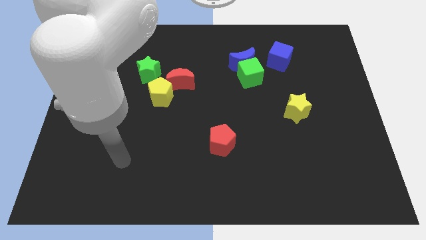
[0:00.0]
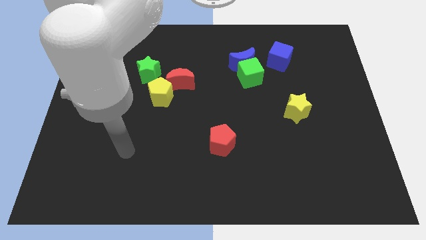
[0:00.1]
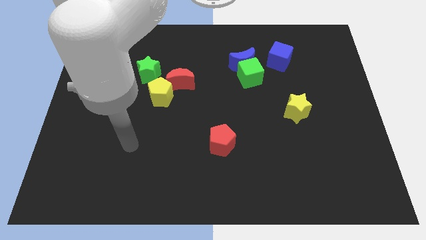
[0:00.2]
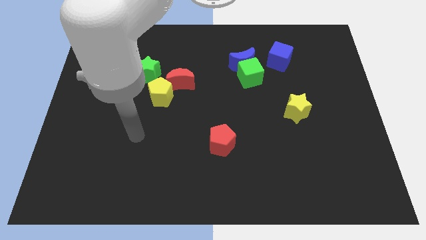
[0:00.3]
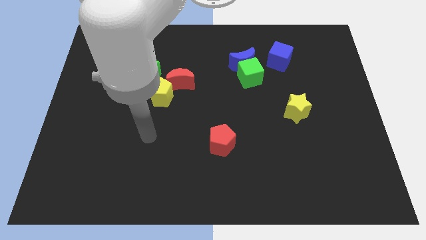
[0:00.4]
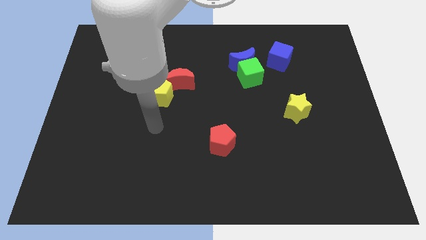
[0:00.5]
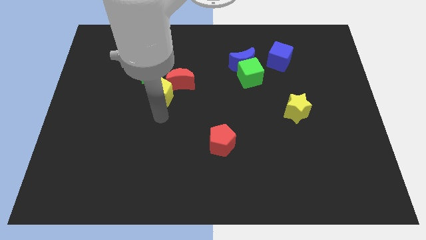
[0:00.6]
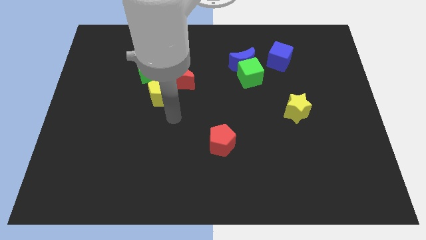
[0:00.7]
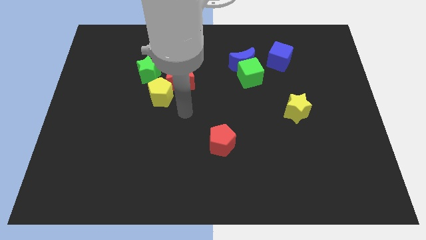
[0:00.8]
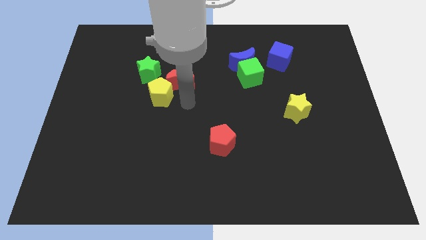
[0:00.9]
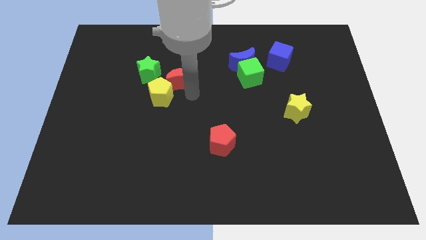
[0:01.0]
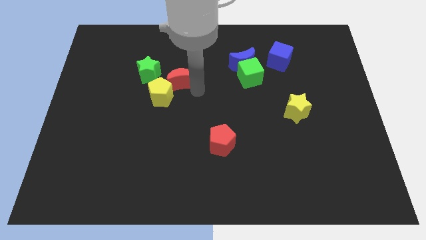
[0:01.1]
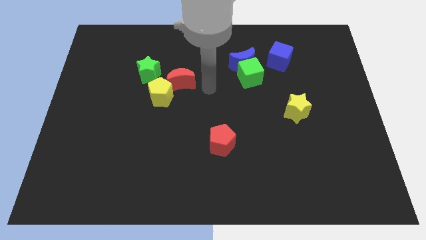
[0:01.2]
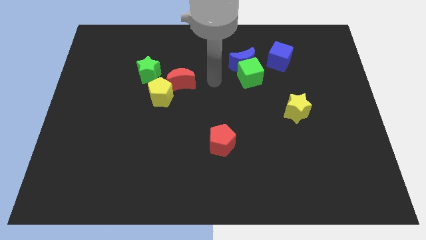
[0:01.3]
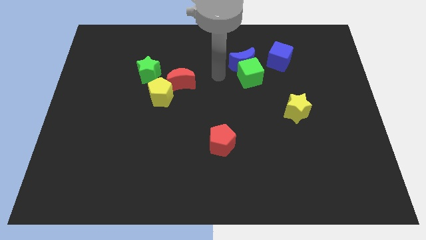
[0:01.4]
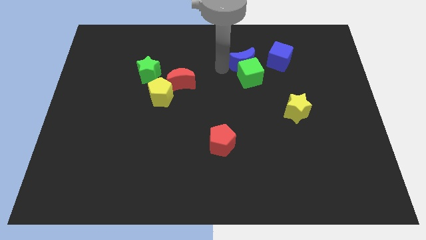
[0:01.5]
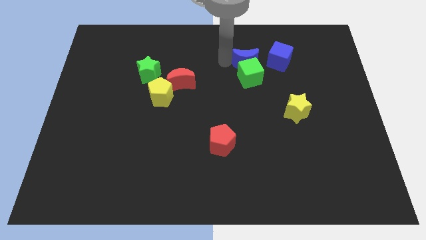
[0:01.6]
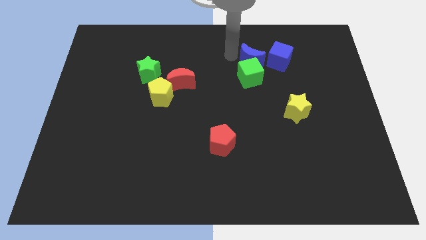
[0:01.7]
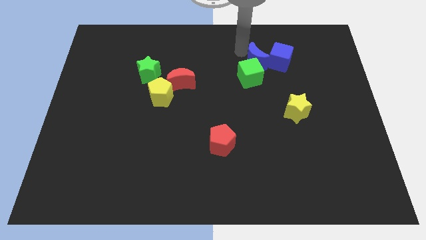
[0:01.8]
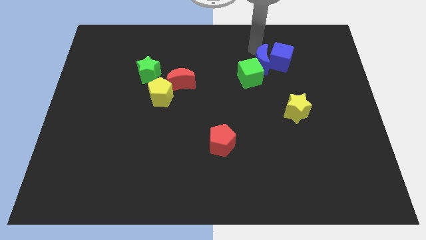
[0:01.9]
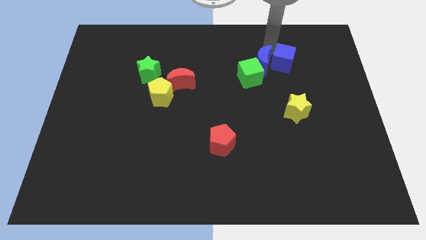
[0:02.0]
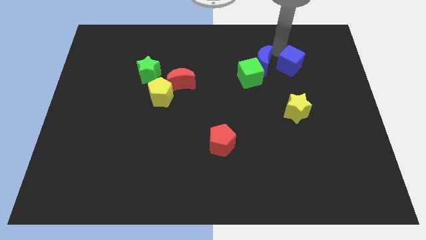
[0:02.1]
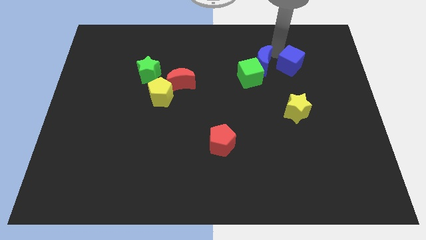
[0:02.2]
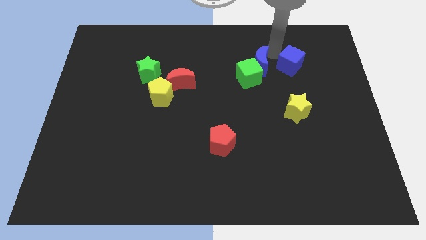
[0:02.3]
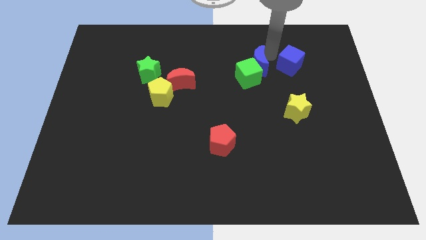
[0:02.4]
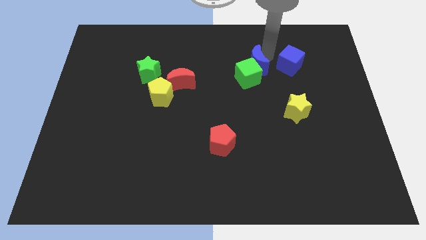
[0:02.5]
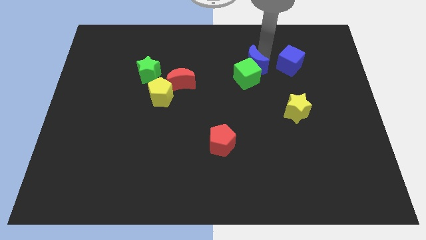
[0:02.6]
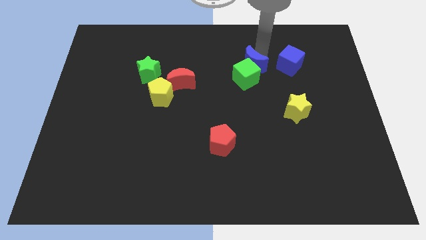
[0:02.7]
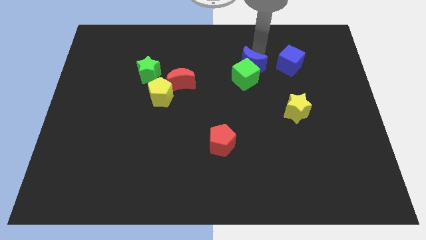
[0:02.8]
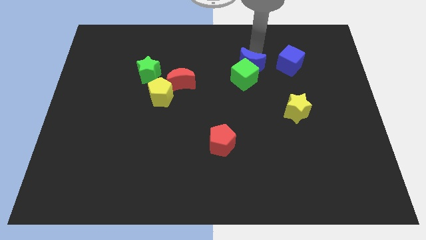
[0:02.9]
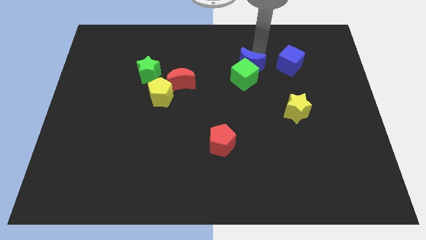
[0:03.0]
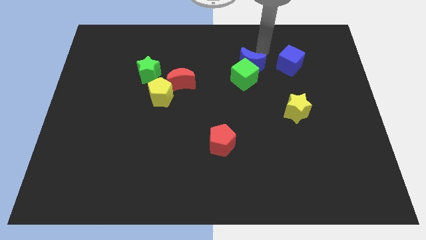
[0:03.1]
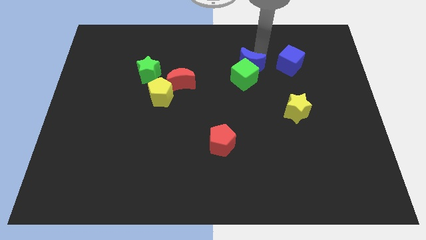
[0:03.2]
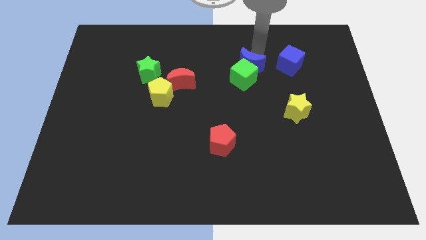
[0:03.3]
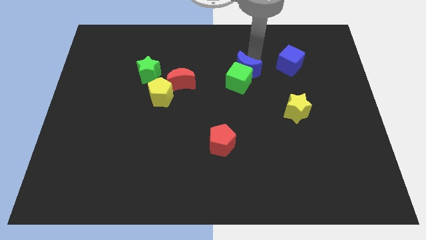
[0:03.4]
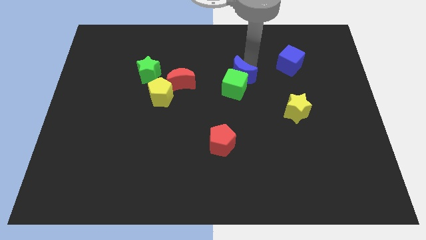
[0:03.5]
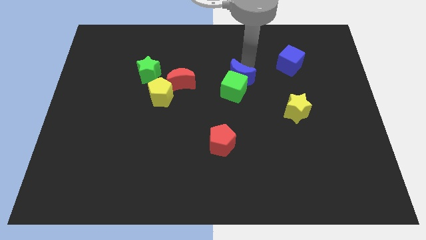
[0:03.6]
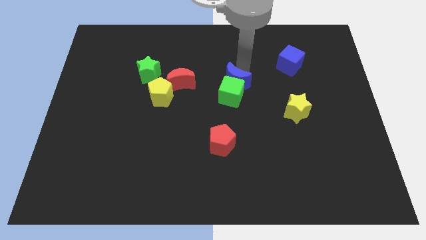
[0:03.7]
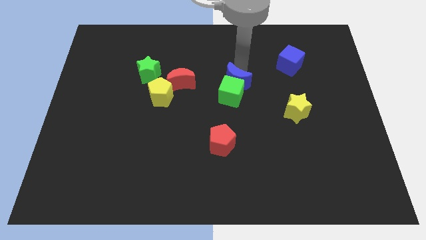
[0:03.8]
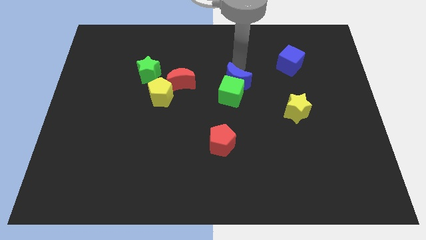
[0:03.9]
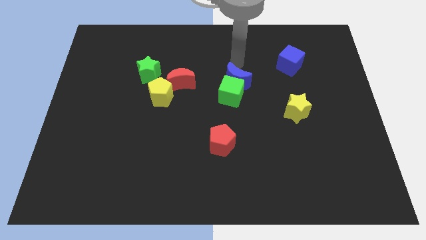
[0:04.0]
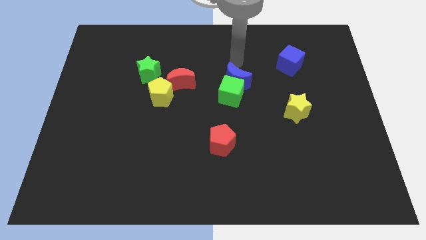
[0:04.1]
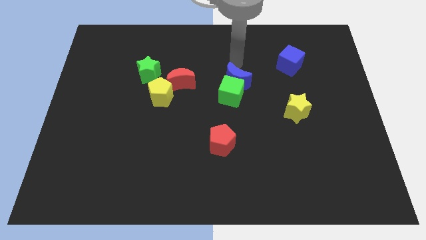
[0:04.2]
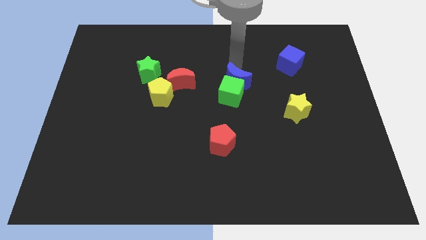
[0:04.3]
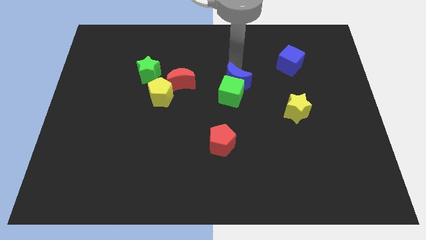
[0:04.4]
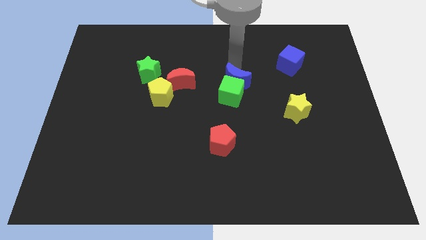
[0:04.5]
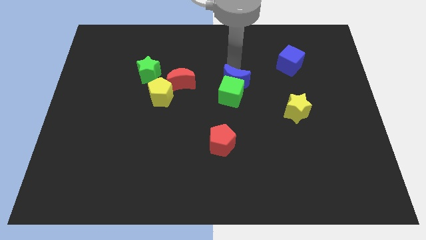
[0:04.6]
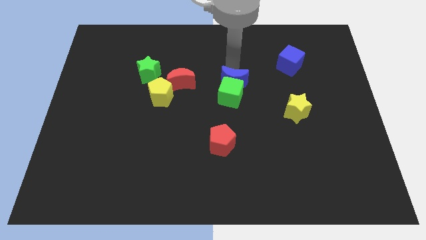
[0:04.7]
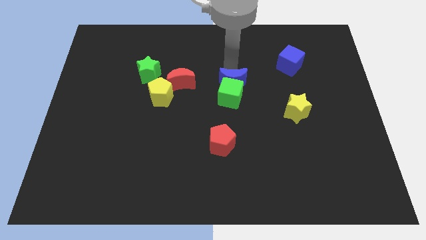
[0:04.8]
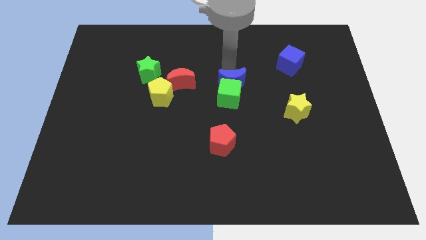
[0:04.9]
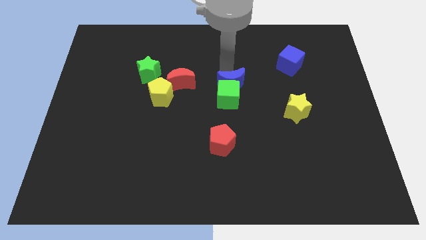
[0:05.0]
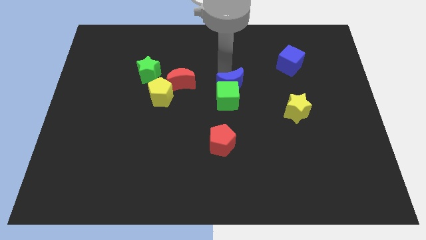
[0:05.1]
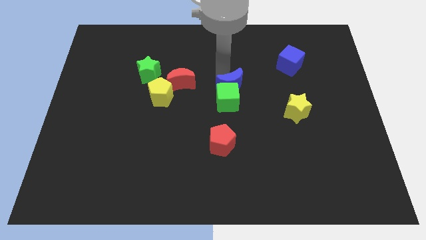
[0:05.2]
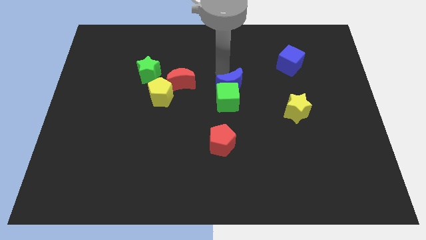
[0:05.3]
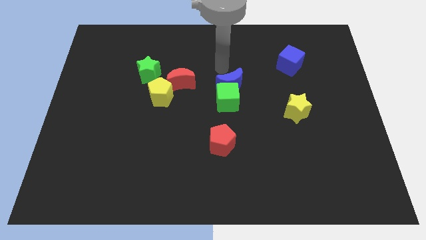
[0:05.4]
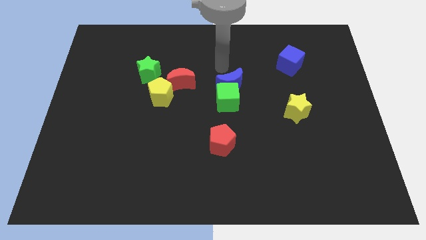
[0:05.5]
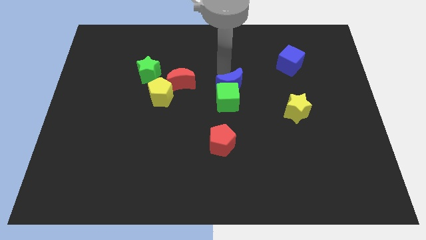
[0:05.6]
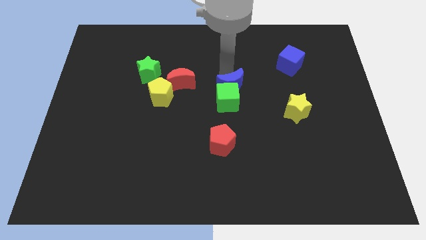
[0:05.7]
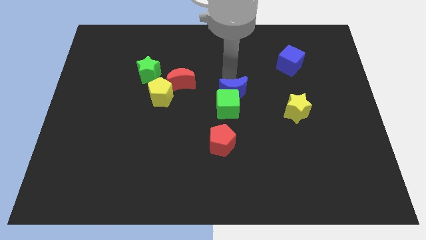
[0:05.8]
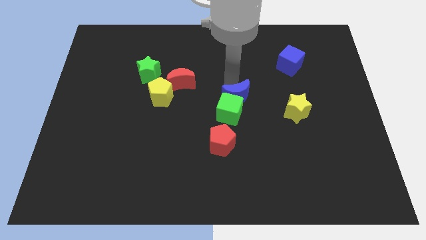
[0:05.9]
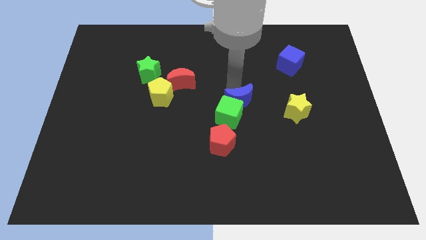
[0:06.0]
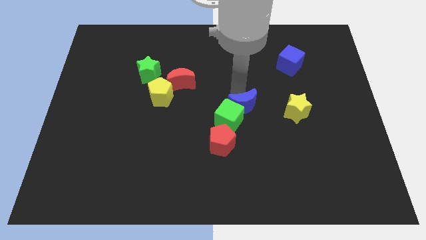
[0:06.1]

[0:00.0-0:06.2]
put the blue moon diagonally up and to the right of the red pentagon
